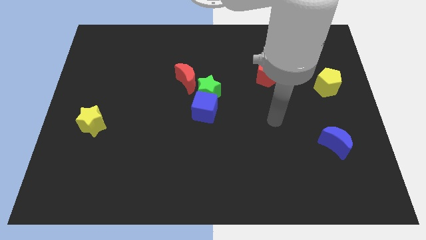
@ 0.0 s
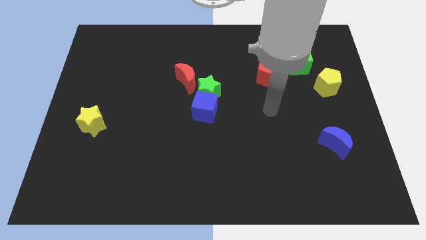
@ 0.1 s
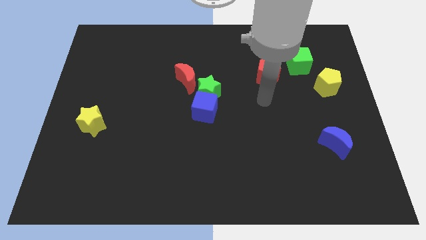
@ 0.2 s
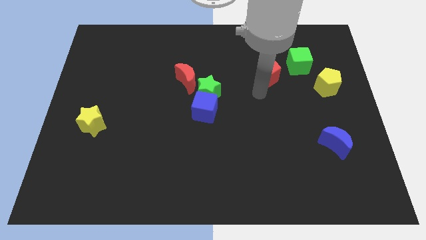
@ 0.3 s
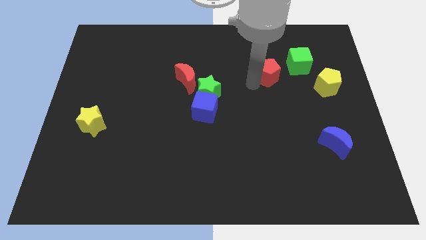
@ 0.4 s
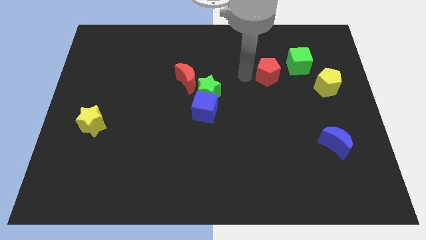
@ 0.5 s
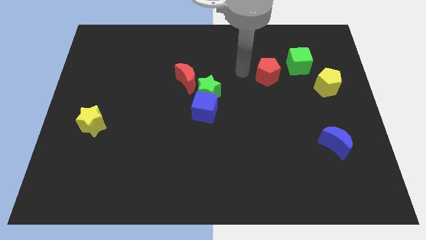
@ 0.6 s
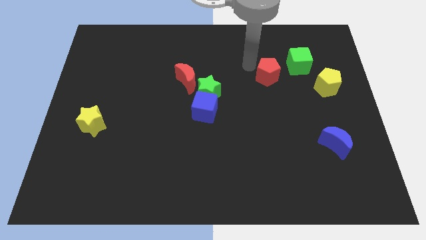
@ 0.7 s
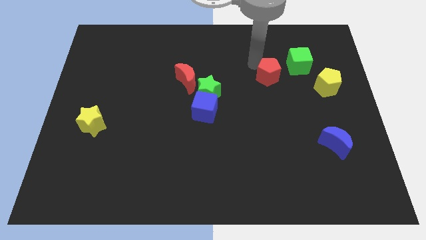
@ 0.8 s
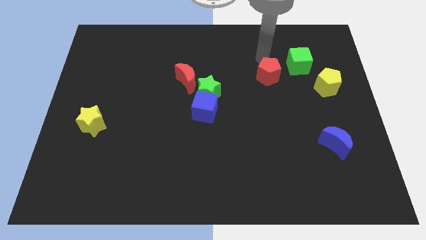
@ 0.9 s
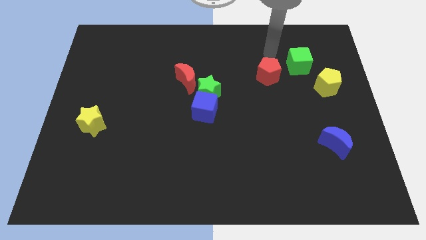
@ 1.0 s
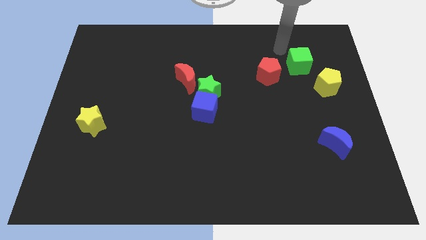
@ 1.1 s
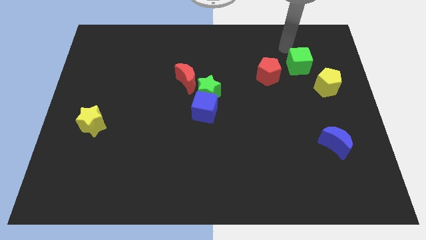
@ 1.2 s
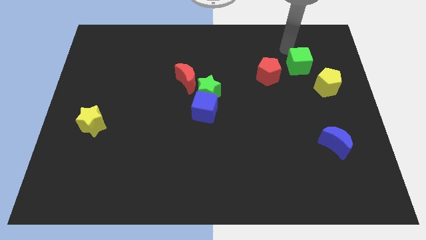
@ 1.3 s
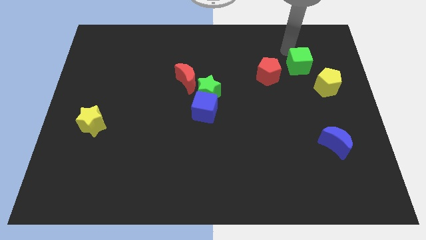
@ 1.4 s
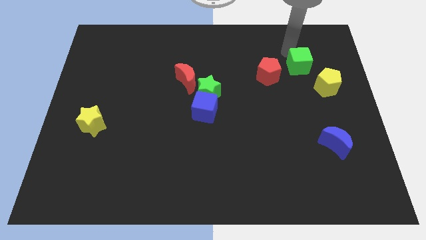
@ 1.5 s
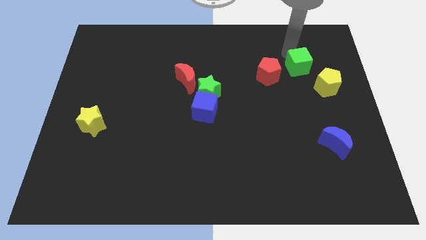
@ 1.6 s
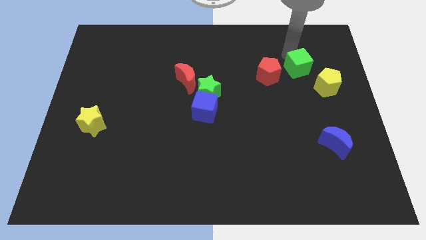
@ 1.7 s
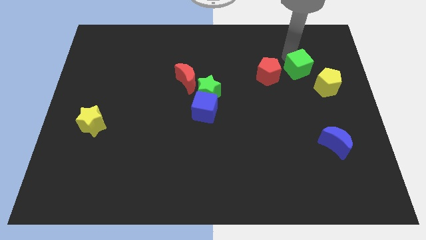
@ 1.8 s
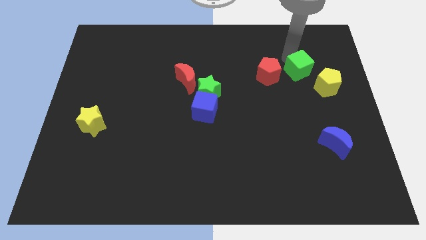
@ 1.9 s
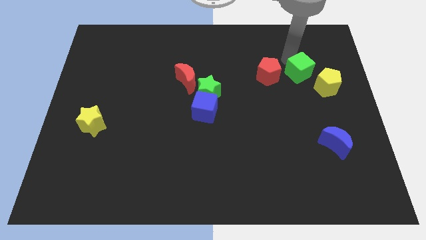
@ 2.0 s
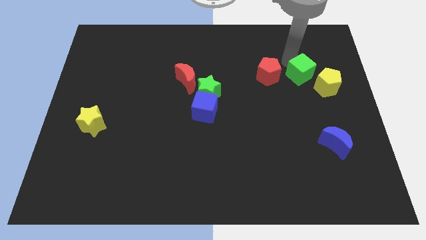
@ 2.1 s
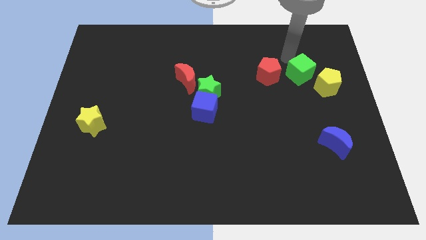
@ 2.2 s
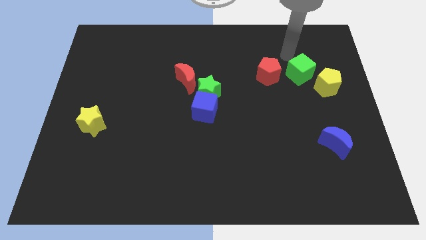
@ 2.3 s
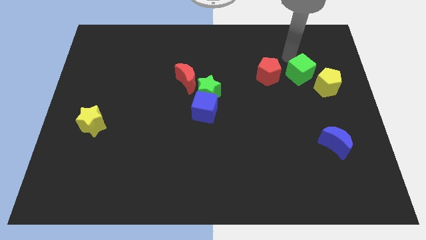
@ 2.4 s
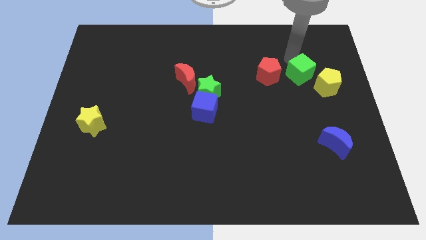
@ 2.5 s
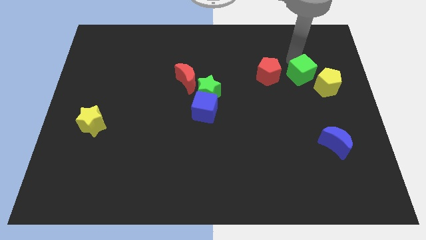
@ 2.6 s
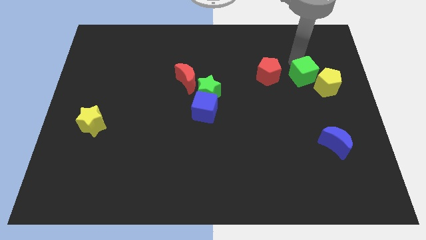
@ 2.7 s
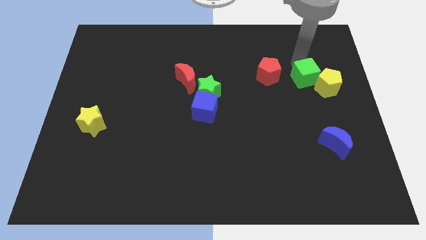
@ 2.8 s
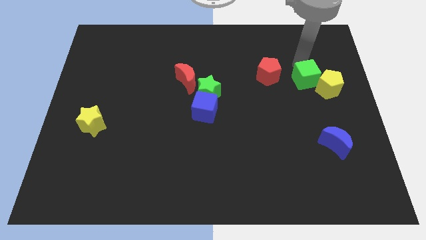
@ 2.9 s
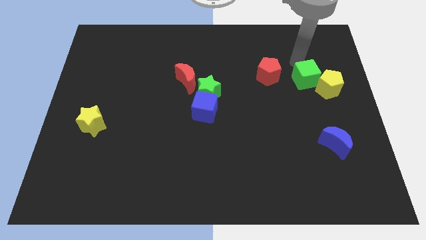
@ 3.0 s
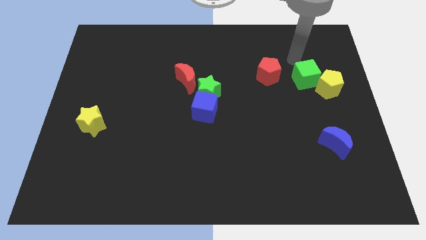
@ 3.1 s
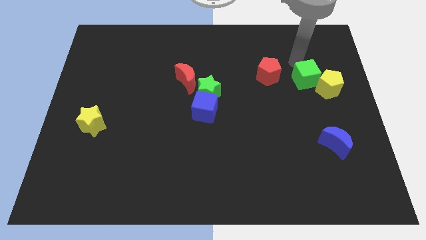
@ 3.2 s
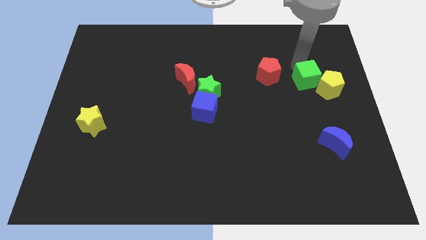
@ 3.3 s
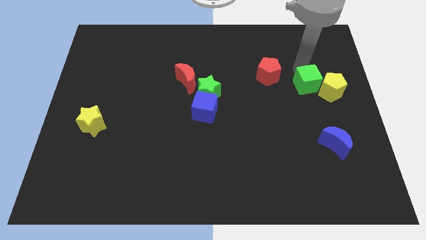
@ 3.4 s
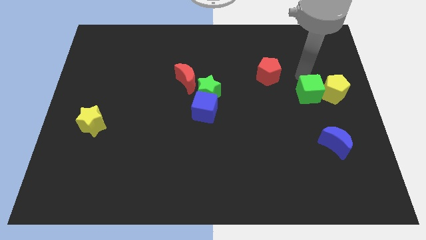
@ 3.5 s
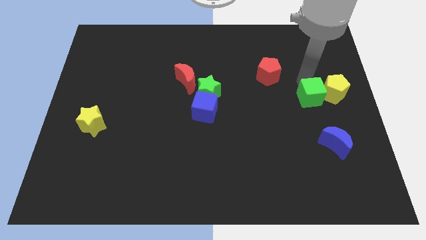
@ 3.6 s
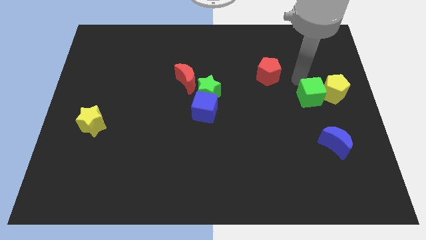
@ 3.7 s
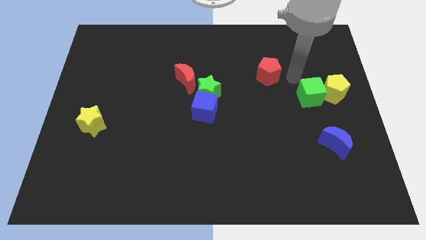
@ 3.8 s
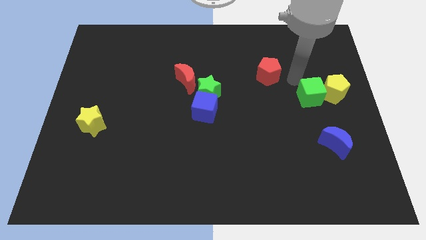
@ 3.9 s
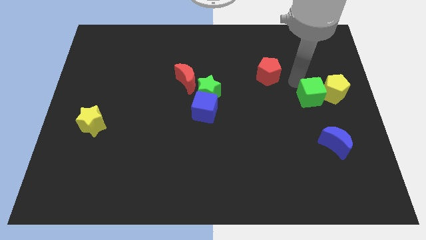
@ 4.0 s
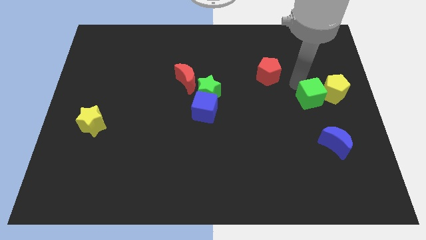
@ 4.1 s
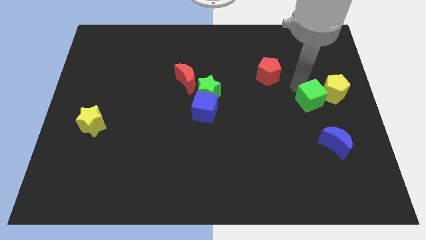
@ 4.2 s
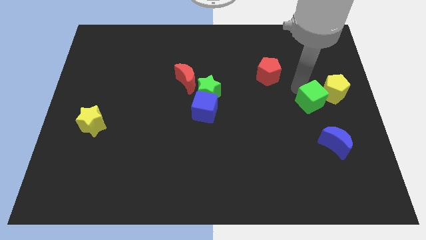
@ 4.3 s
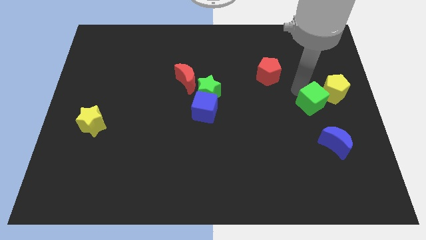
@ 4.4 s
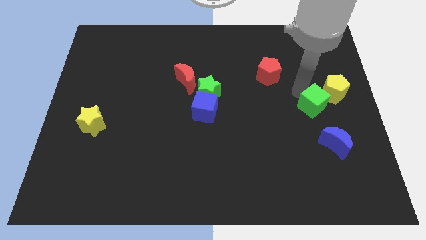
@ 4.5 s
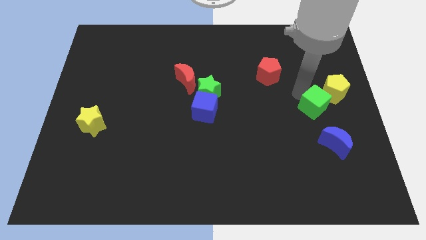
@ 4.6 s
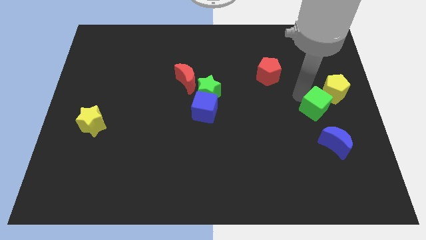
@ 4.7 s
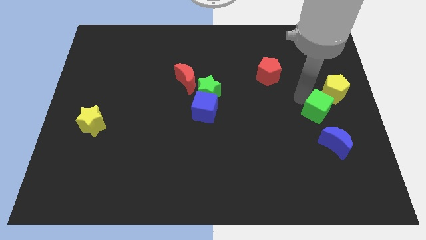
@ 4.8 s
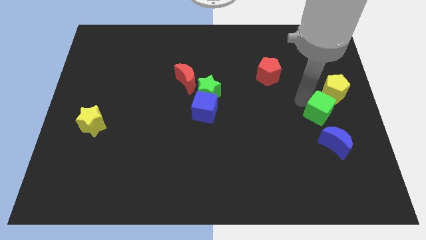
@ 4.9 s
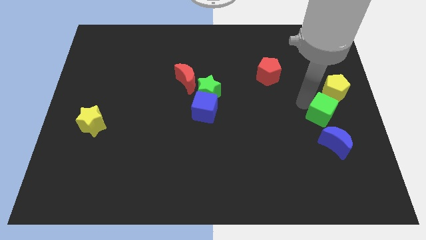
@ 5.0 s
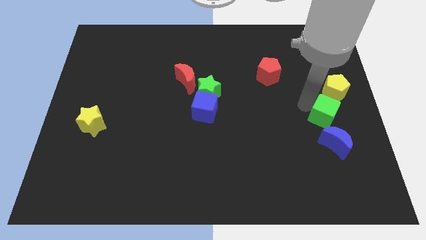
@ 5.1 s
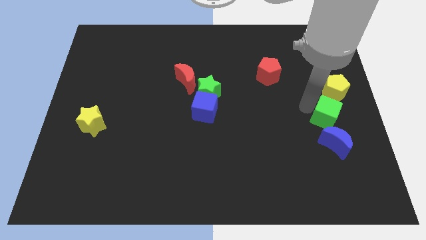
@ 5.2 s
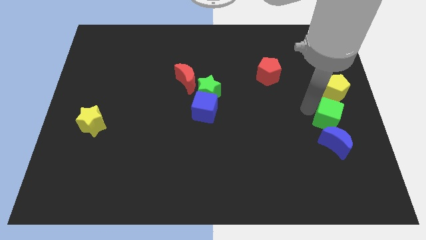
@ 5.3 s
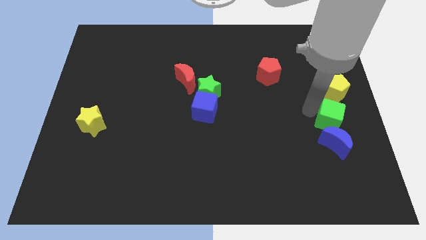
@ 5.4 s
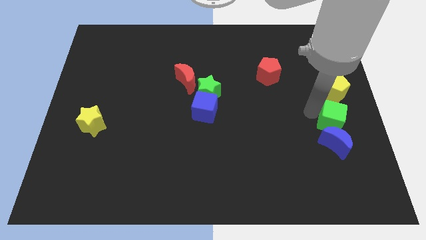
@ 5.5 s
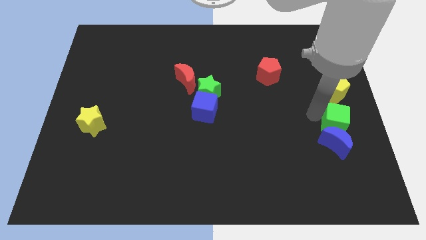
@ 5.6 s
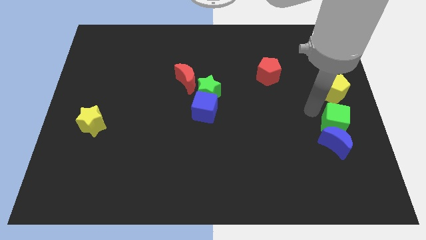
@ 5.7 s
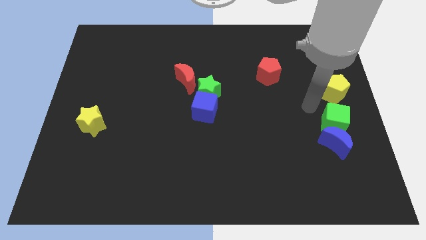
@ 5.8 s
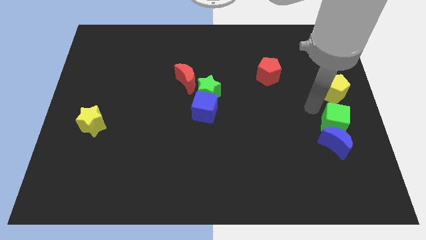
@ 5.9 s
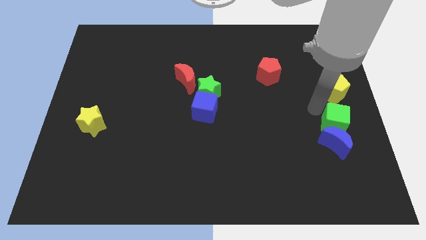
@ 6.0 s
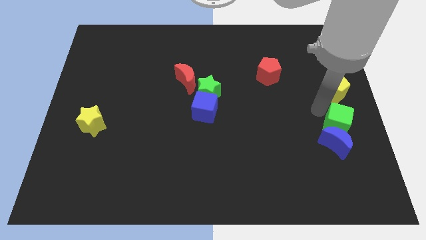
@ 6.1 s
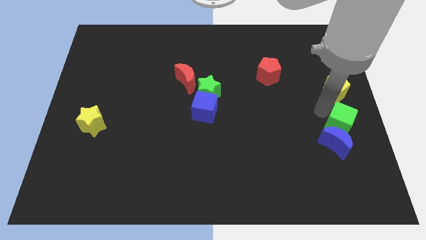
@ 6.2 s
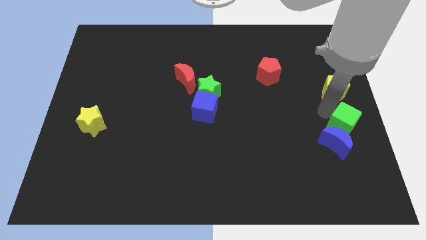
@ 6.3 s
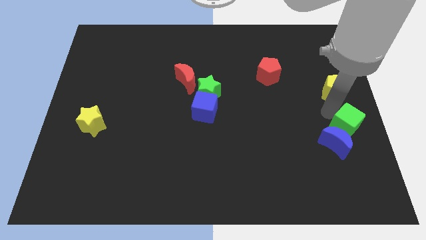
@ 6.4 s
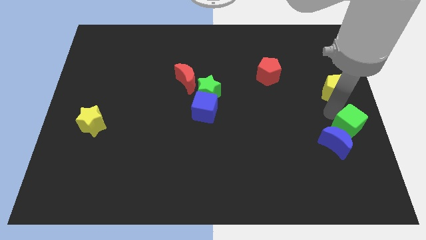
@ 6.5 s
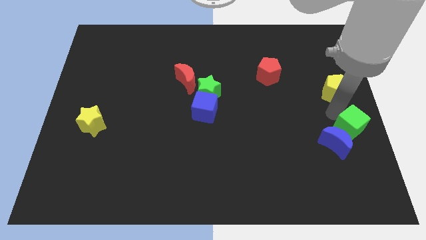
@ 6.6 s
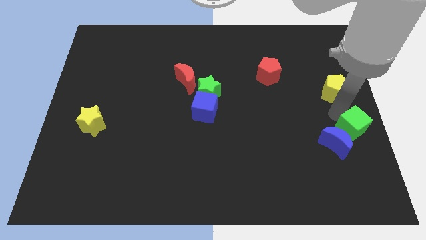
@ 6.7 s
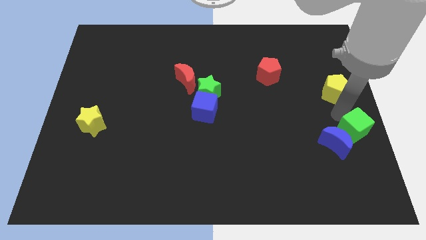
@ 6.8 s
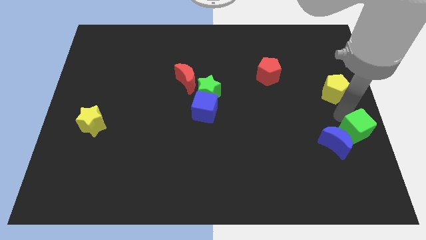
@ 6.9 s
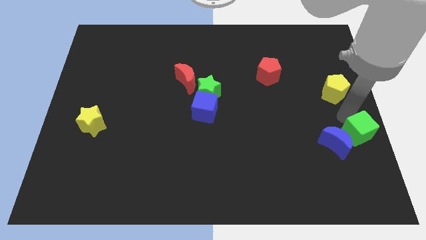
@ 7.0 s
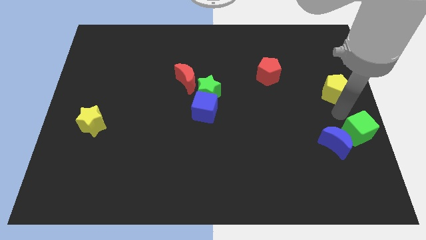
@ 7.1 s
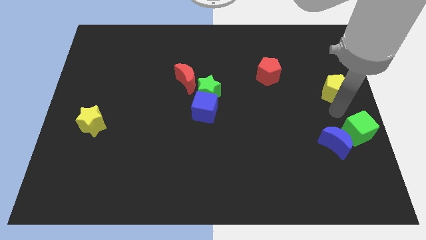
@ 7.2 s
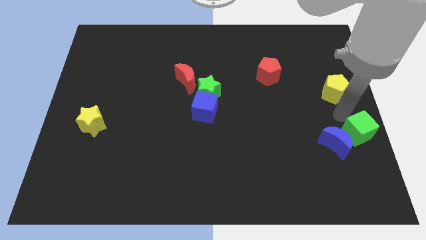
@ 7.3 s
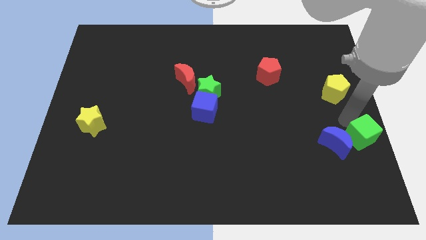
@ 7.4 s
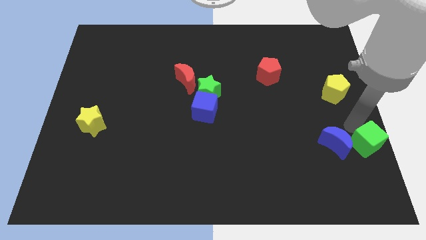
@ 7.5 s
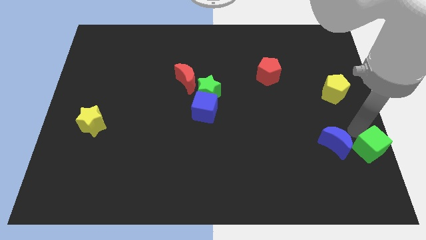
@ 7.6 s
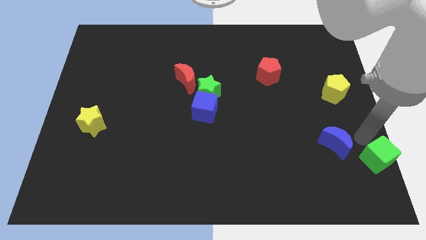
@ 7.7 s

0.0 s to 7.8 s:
put the green cube to the bottom right of the board
